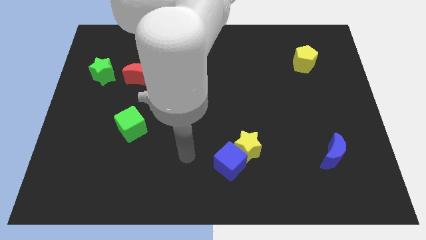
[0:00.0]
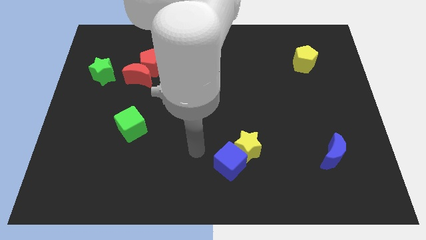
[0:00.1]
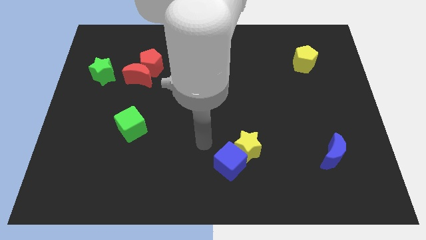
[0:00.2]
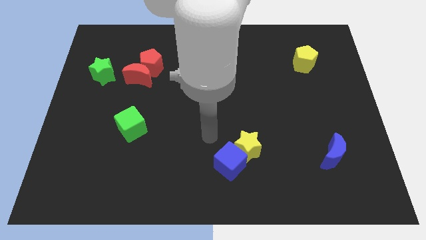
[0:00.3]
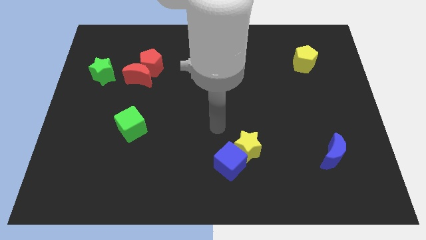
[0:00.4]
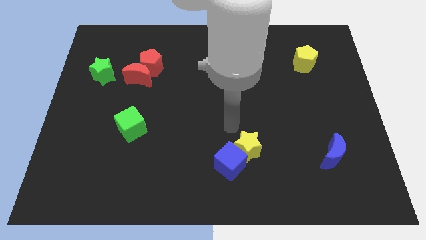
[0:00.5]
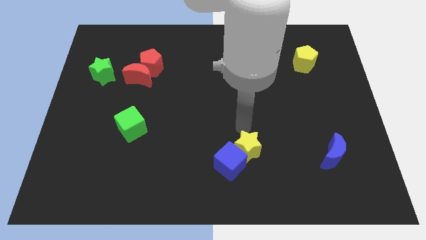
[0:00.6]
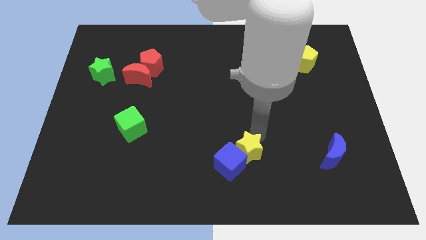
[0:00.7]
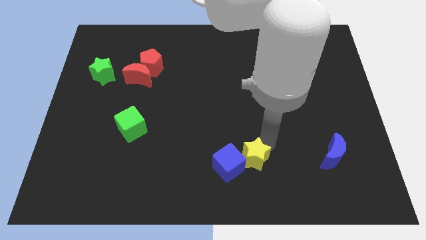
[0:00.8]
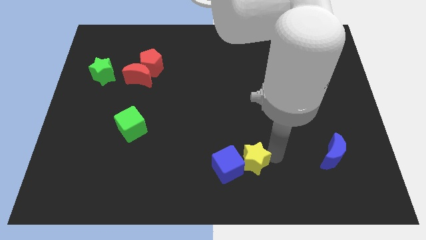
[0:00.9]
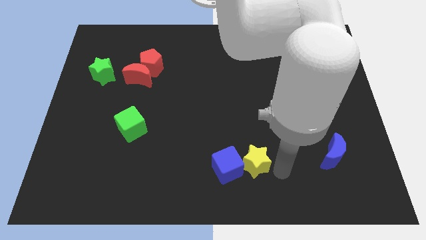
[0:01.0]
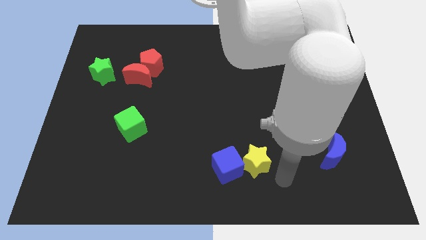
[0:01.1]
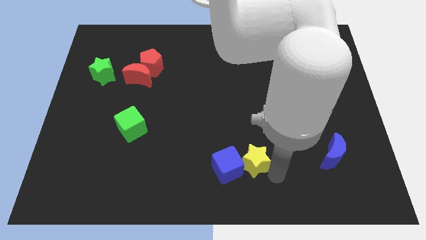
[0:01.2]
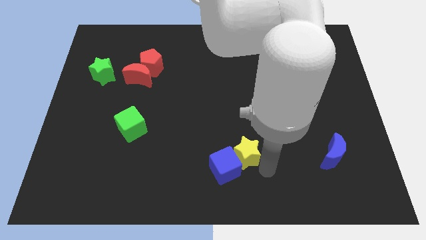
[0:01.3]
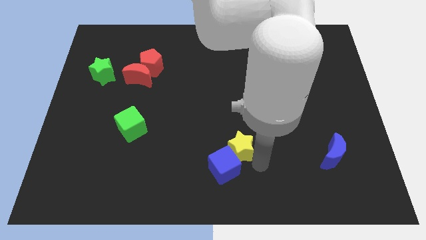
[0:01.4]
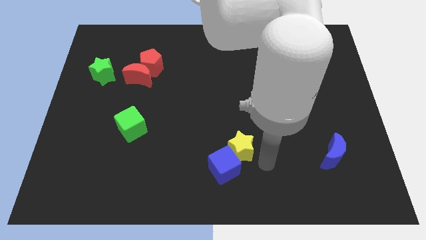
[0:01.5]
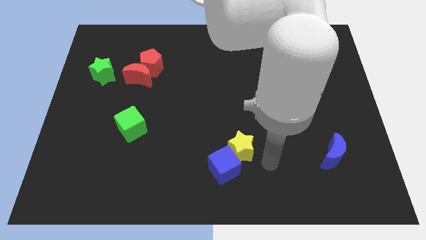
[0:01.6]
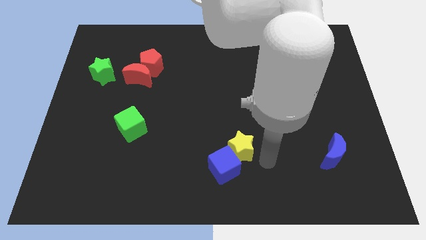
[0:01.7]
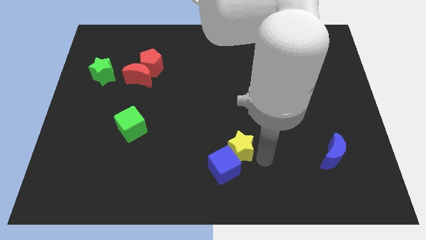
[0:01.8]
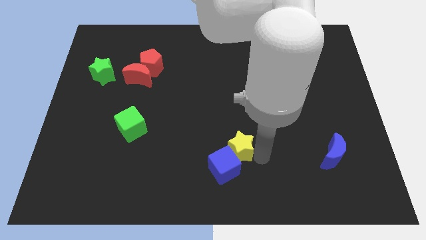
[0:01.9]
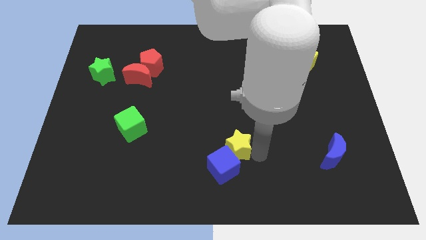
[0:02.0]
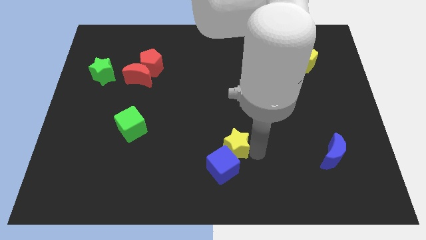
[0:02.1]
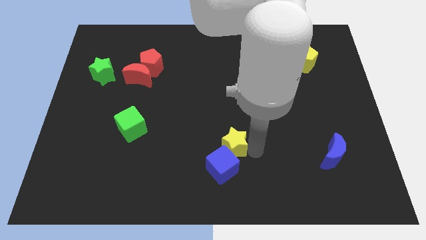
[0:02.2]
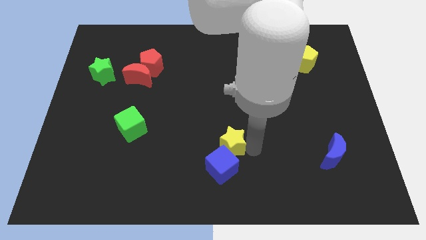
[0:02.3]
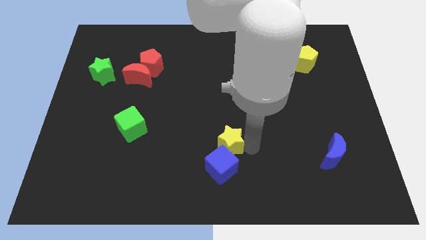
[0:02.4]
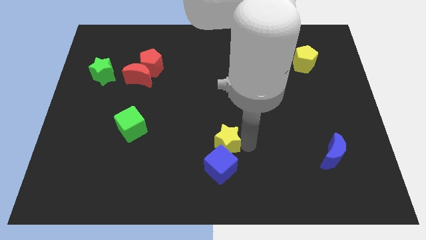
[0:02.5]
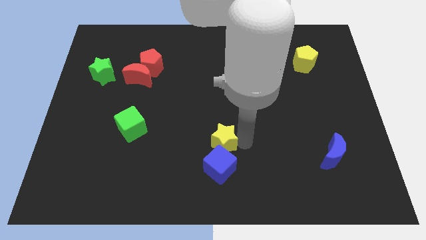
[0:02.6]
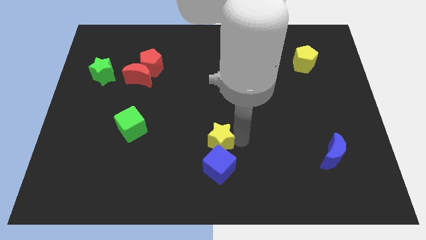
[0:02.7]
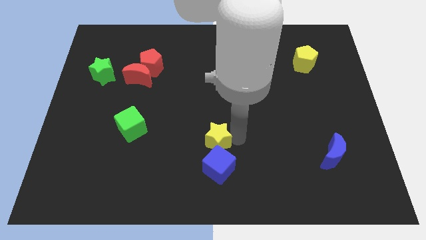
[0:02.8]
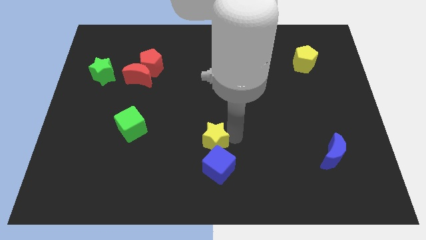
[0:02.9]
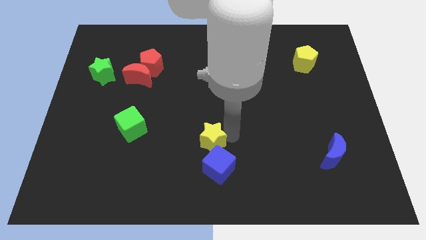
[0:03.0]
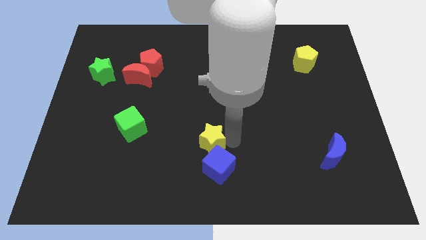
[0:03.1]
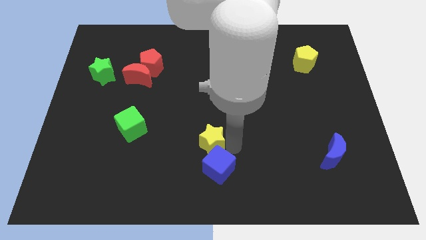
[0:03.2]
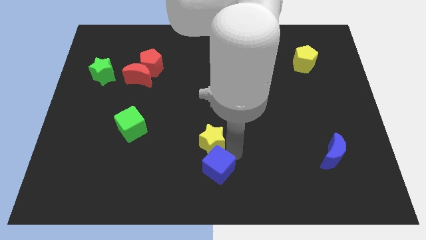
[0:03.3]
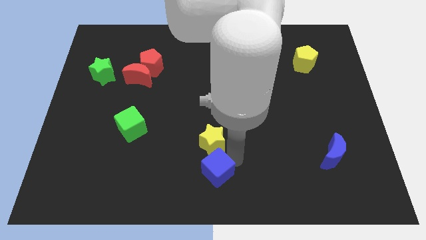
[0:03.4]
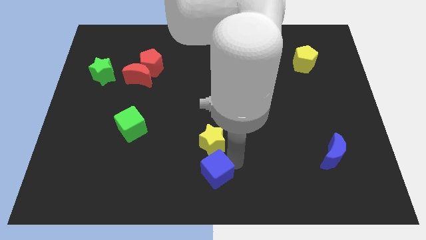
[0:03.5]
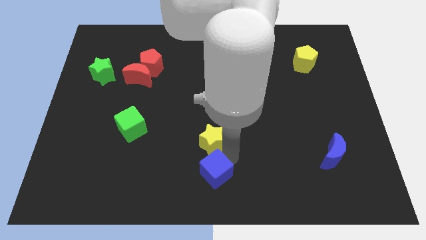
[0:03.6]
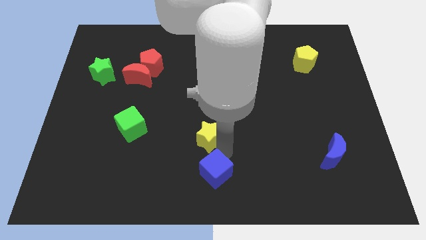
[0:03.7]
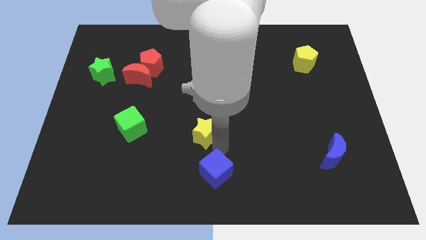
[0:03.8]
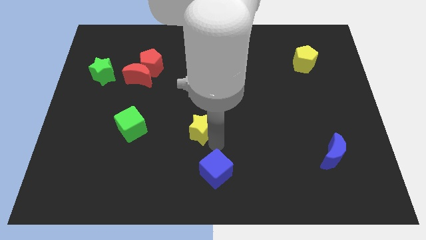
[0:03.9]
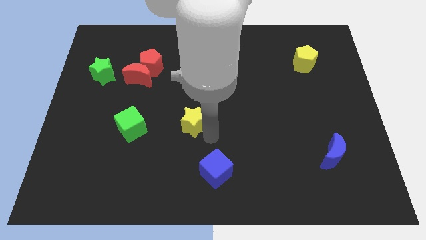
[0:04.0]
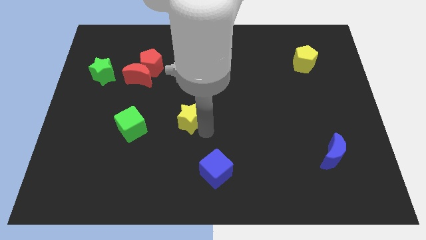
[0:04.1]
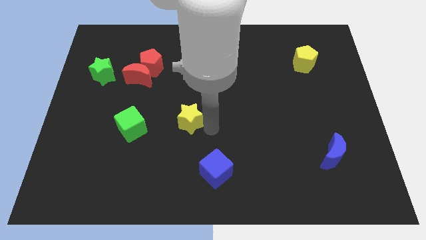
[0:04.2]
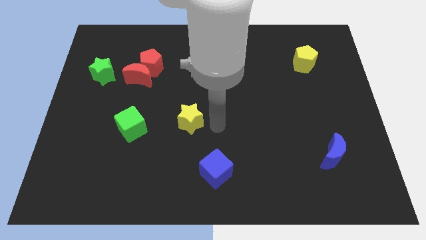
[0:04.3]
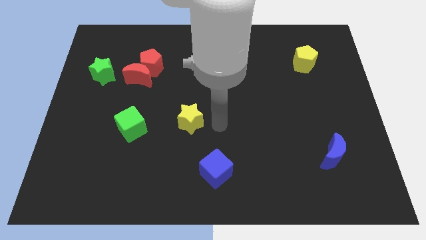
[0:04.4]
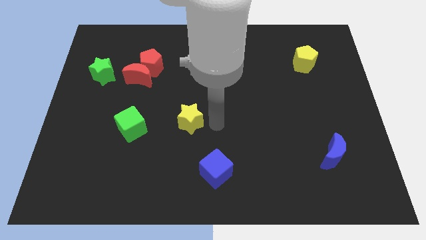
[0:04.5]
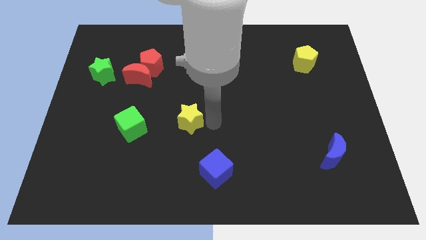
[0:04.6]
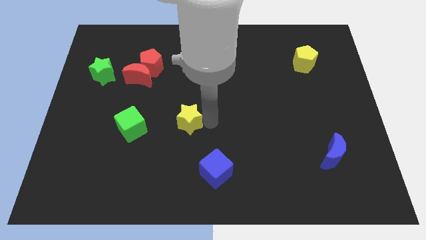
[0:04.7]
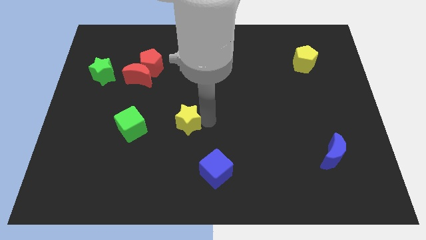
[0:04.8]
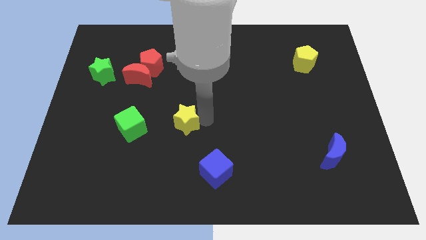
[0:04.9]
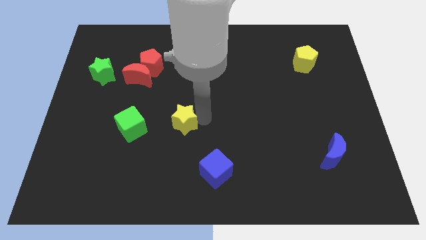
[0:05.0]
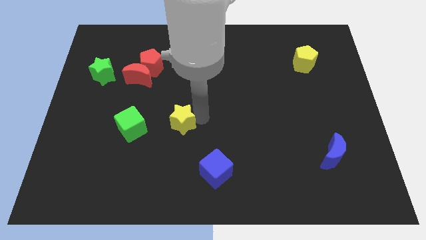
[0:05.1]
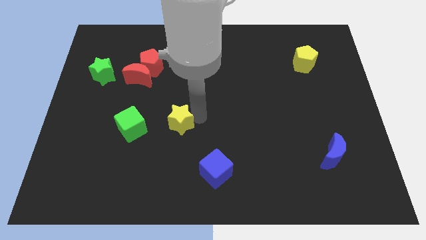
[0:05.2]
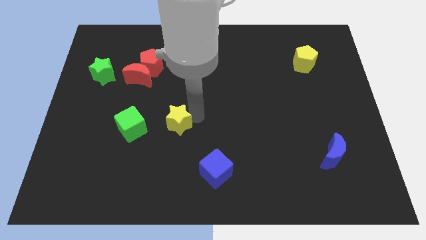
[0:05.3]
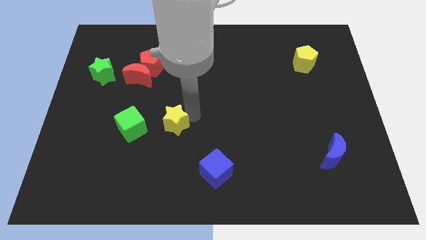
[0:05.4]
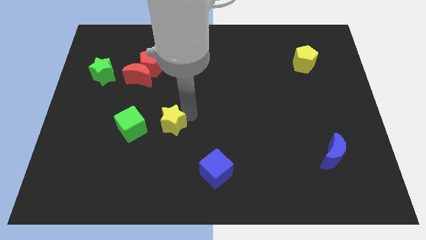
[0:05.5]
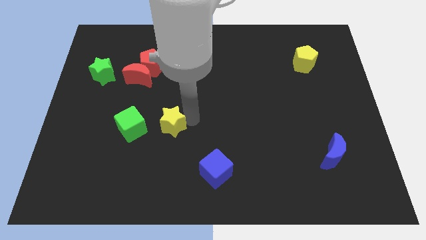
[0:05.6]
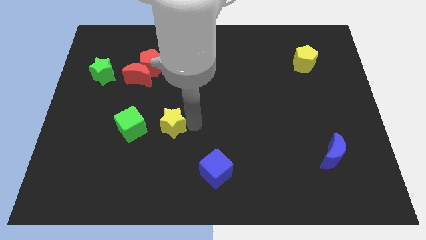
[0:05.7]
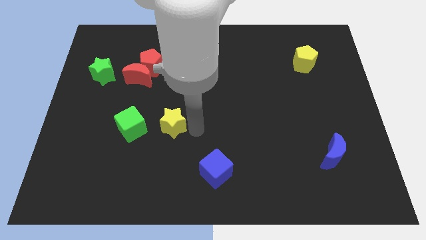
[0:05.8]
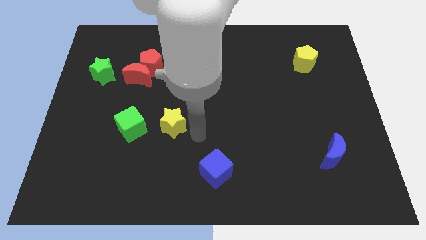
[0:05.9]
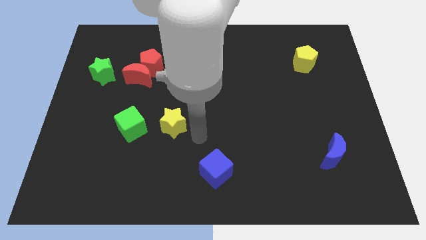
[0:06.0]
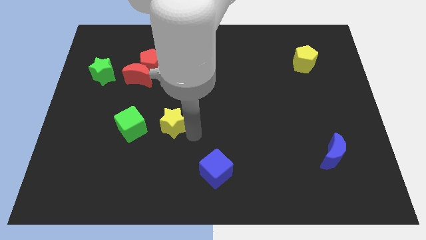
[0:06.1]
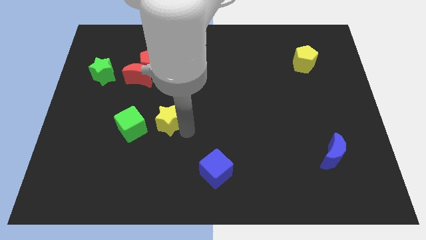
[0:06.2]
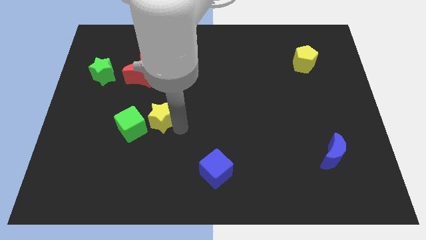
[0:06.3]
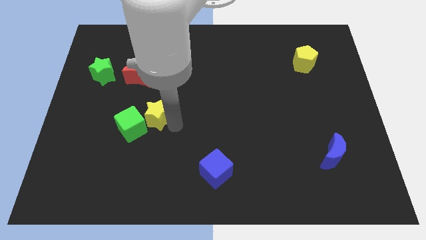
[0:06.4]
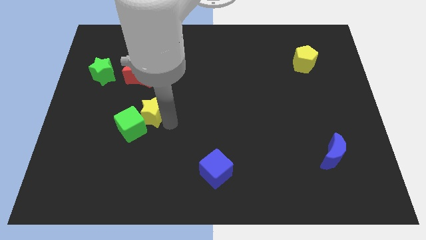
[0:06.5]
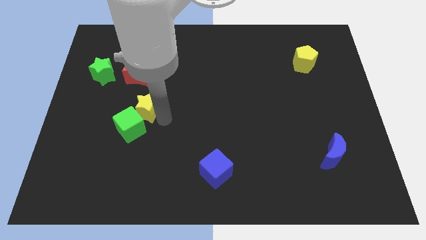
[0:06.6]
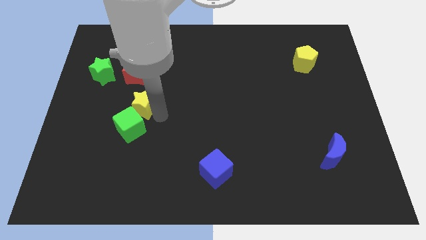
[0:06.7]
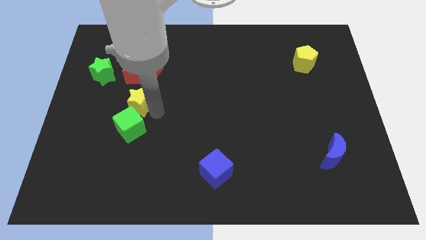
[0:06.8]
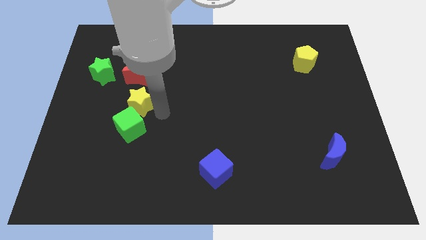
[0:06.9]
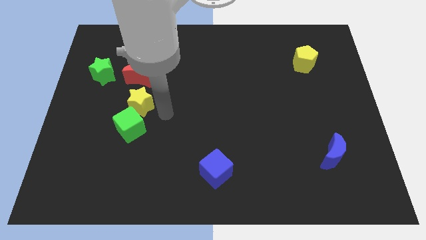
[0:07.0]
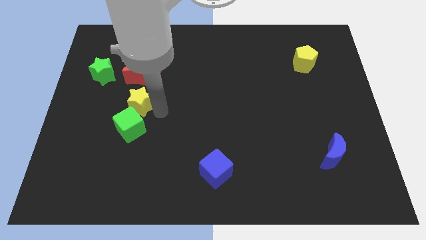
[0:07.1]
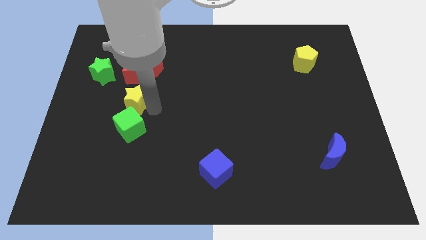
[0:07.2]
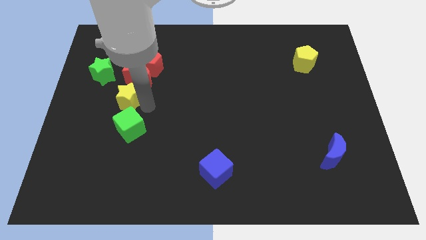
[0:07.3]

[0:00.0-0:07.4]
move the yellow star diagonally down and to the left of the red moon
